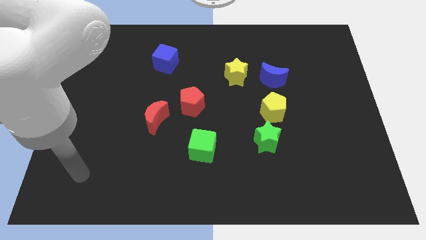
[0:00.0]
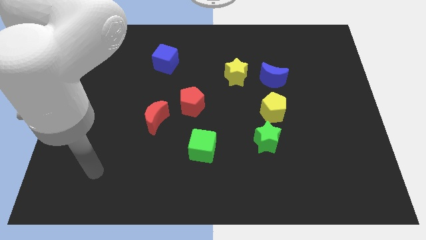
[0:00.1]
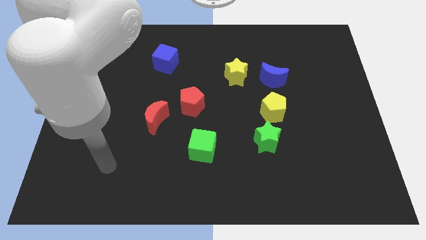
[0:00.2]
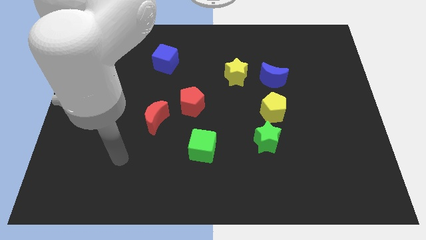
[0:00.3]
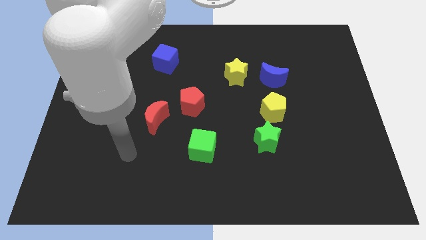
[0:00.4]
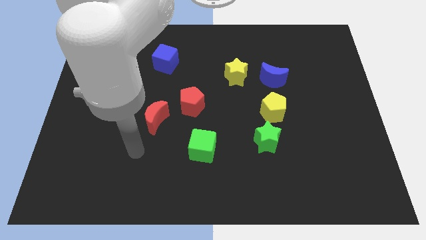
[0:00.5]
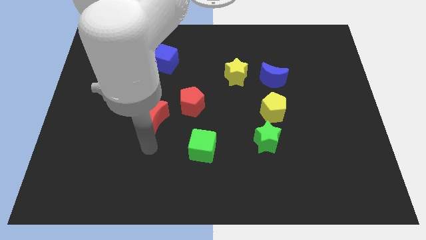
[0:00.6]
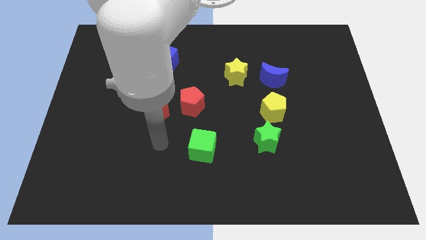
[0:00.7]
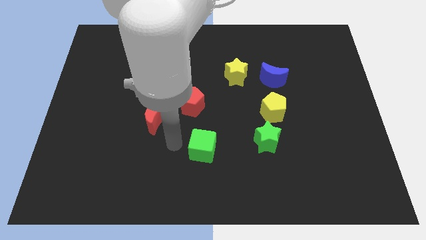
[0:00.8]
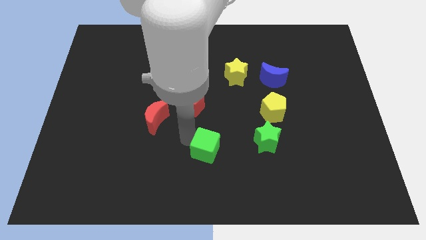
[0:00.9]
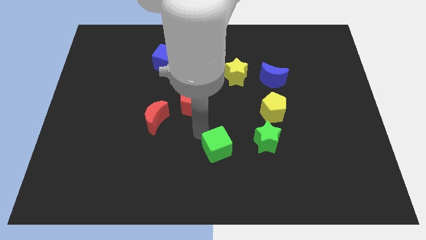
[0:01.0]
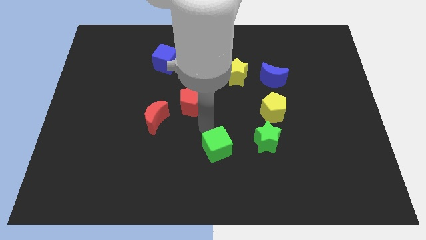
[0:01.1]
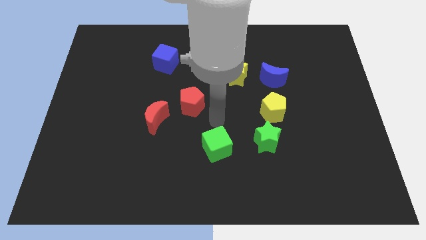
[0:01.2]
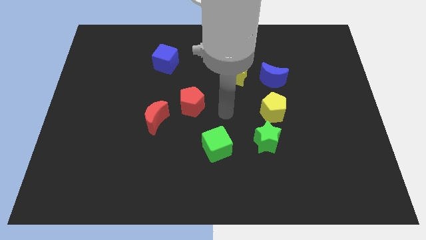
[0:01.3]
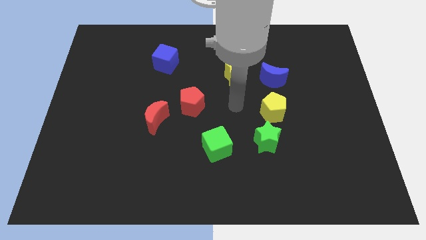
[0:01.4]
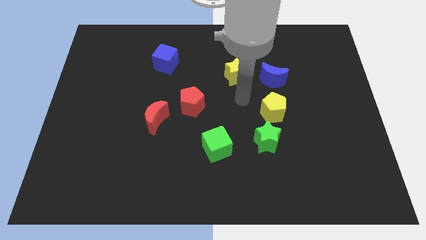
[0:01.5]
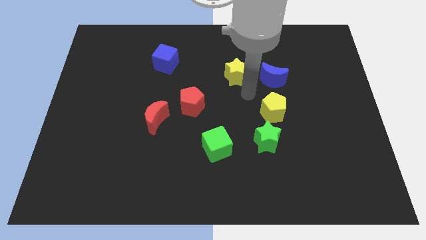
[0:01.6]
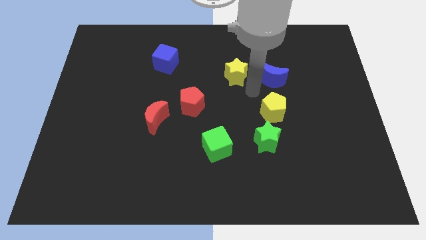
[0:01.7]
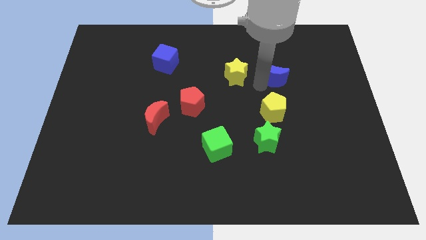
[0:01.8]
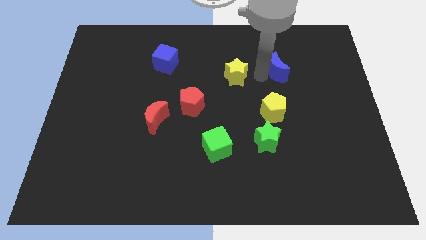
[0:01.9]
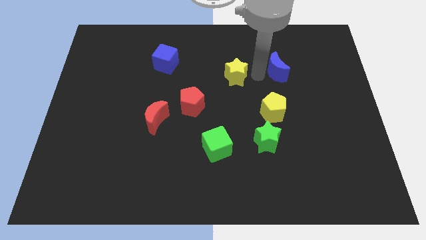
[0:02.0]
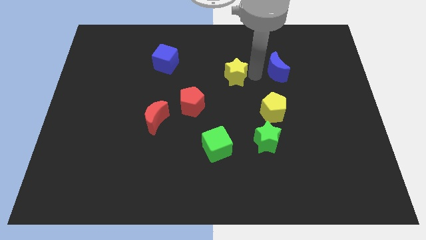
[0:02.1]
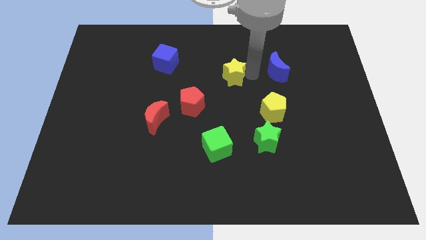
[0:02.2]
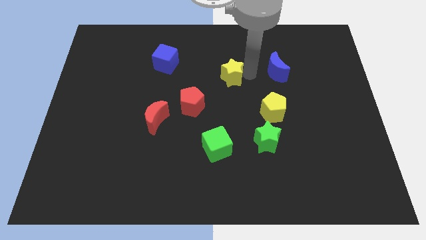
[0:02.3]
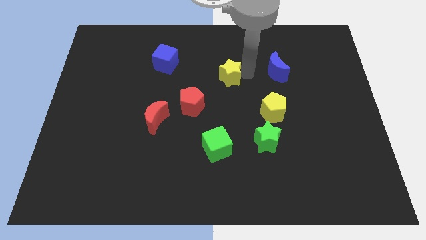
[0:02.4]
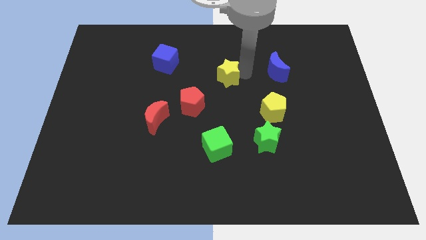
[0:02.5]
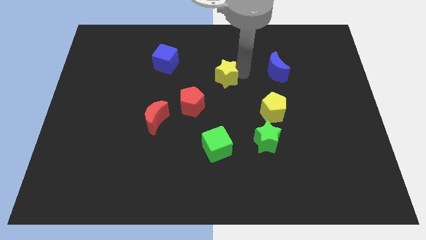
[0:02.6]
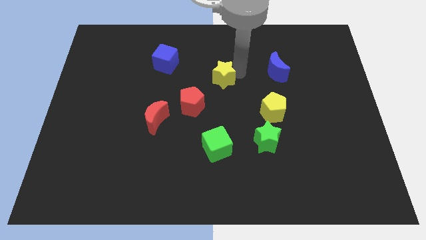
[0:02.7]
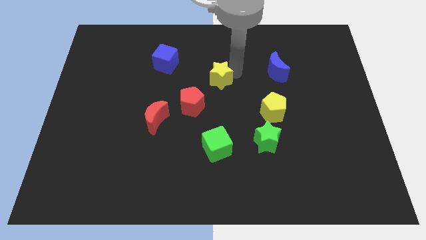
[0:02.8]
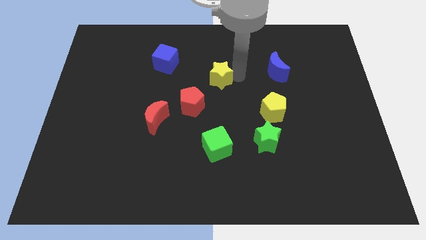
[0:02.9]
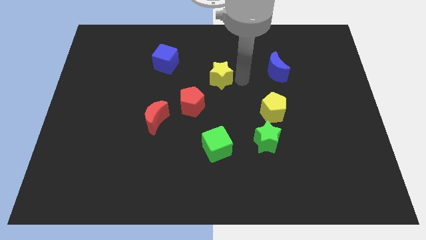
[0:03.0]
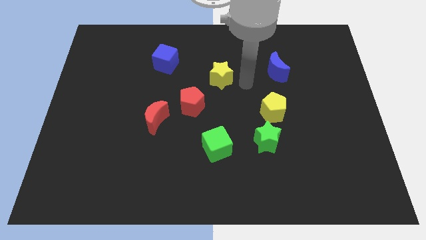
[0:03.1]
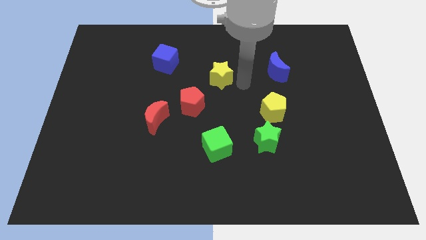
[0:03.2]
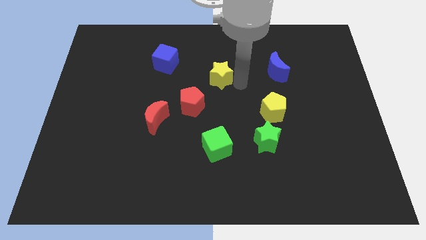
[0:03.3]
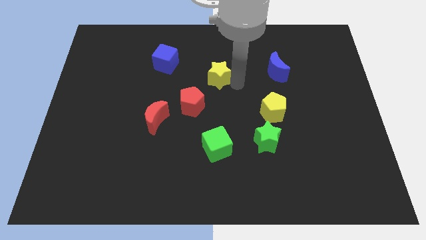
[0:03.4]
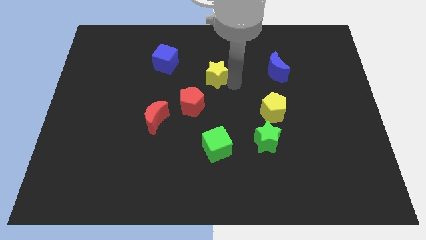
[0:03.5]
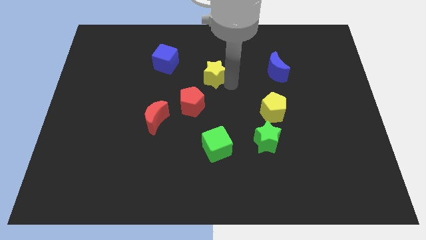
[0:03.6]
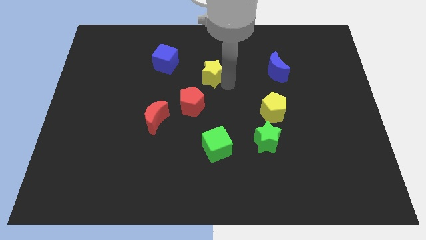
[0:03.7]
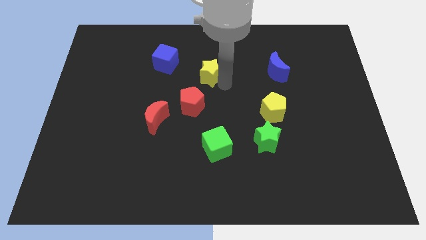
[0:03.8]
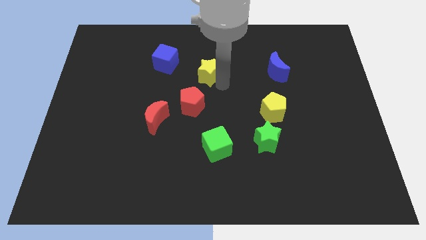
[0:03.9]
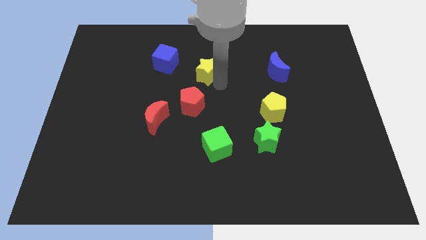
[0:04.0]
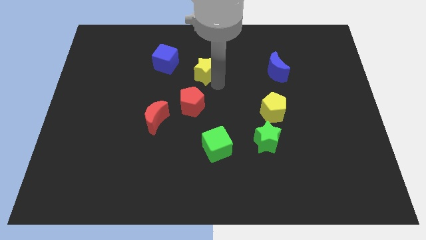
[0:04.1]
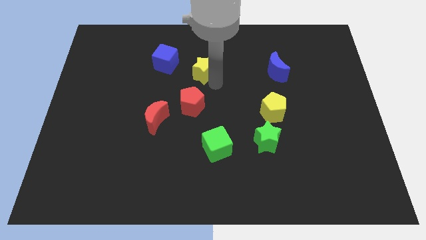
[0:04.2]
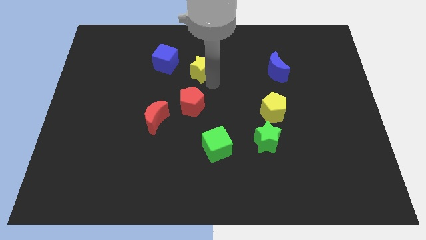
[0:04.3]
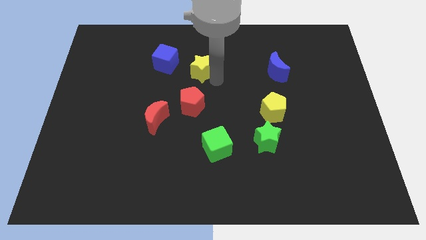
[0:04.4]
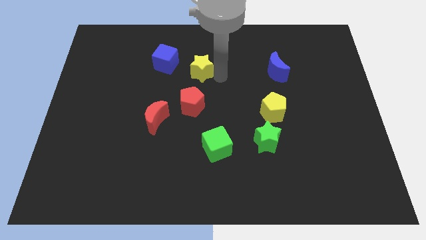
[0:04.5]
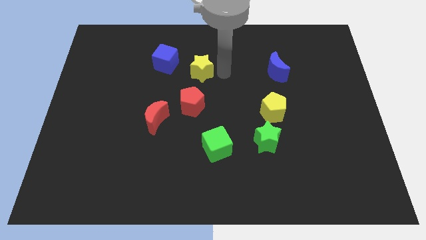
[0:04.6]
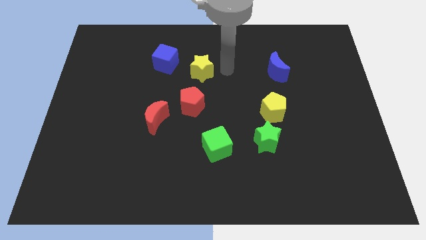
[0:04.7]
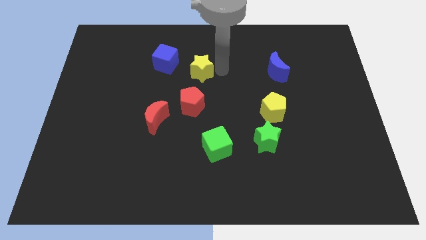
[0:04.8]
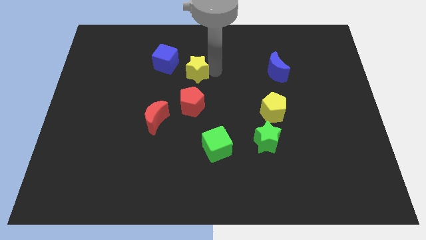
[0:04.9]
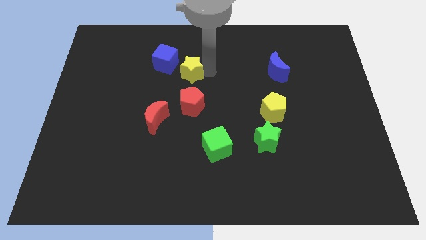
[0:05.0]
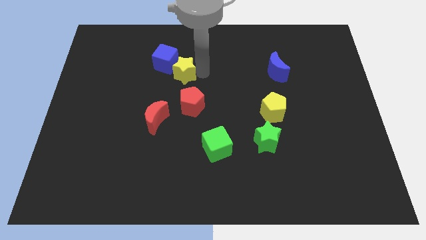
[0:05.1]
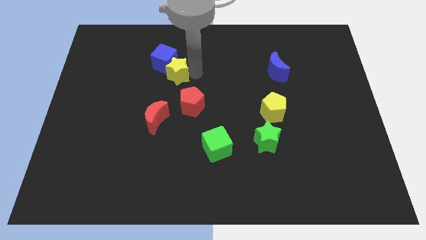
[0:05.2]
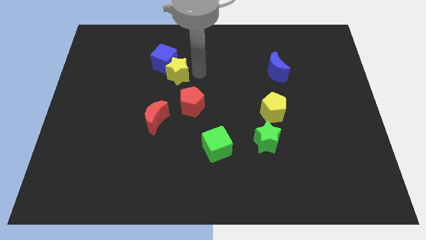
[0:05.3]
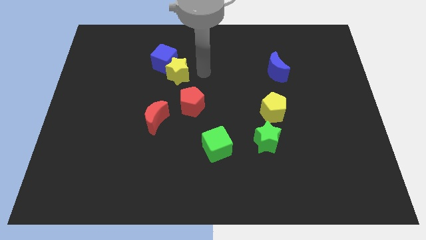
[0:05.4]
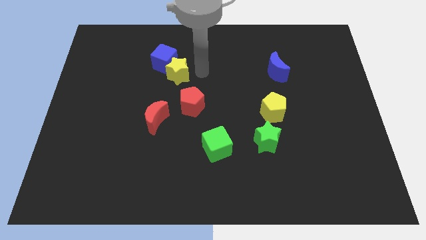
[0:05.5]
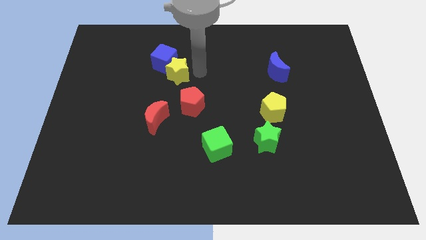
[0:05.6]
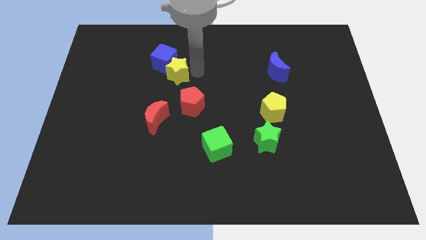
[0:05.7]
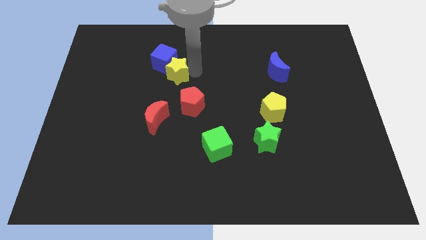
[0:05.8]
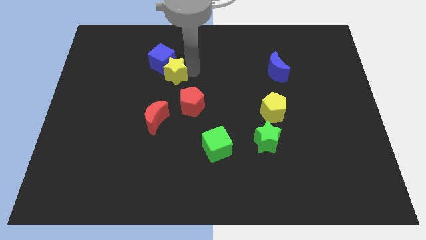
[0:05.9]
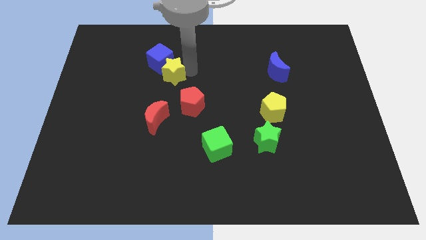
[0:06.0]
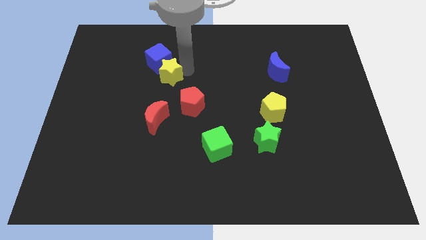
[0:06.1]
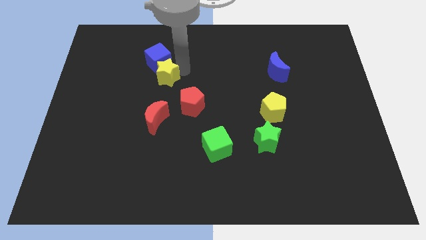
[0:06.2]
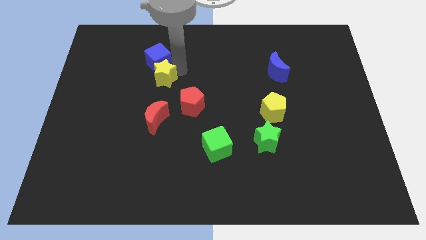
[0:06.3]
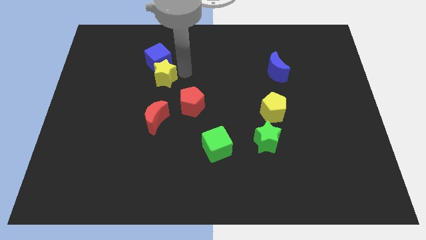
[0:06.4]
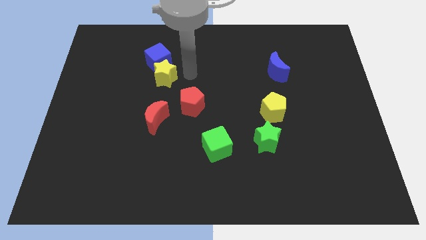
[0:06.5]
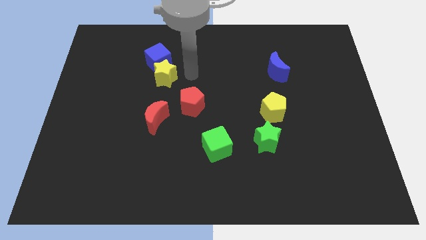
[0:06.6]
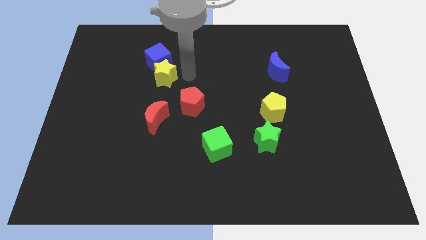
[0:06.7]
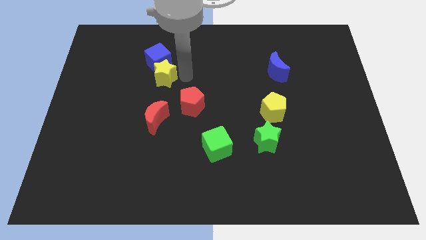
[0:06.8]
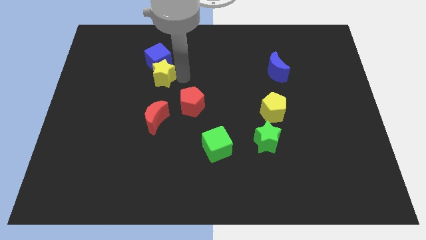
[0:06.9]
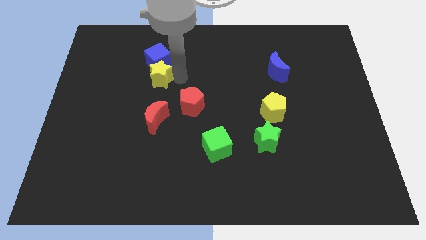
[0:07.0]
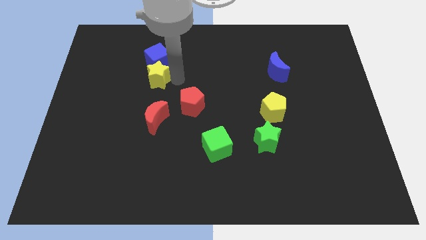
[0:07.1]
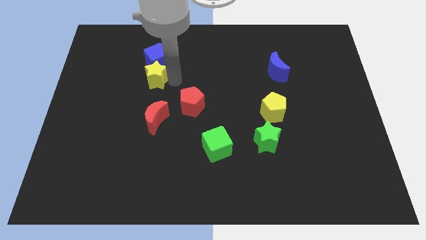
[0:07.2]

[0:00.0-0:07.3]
move the yellow star to the left

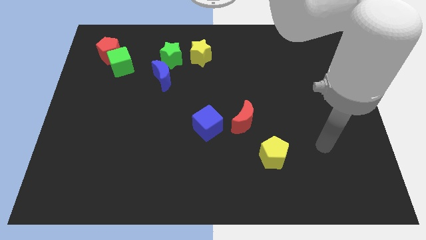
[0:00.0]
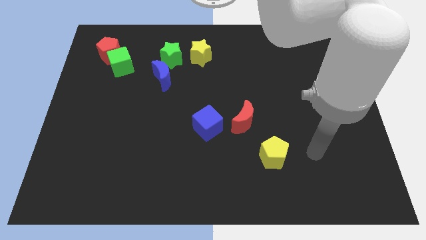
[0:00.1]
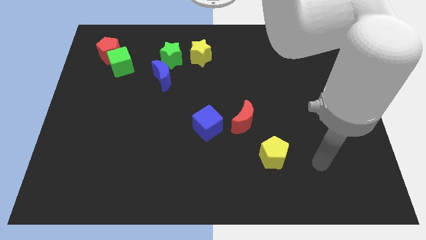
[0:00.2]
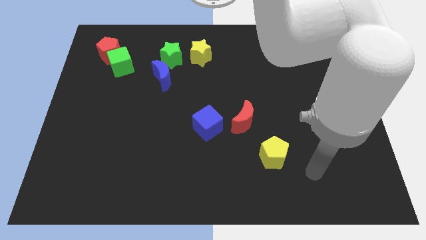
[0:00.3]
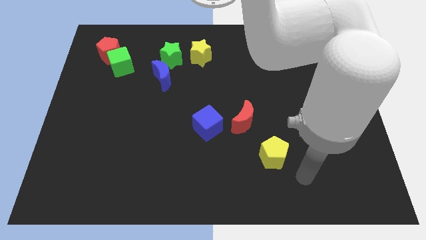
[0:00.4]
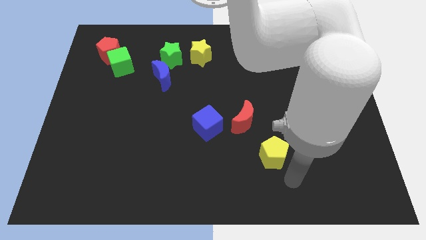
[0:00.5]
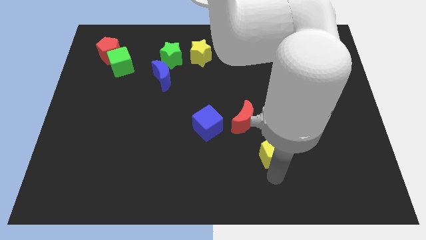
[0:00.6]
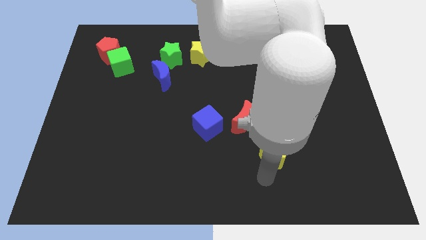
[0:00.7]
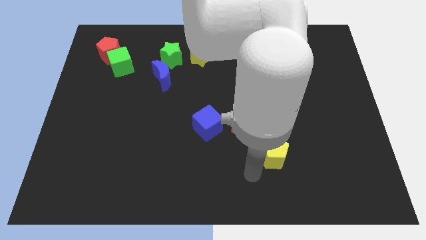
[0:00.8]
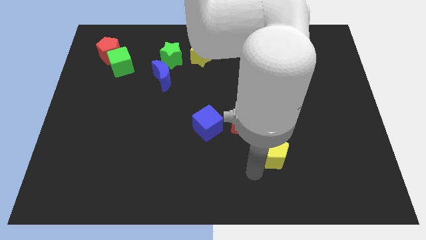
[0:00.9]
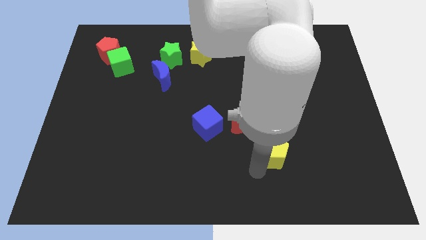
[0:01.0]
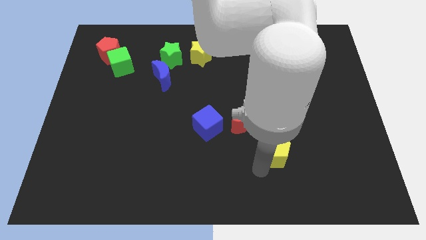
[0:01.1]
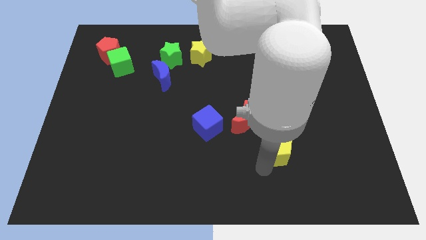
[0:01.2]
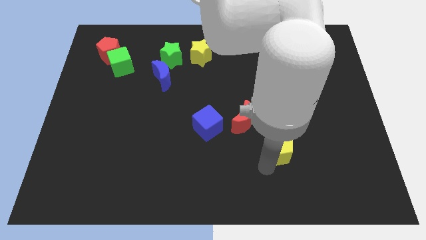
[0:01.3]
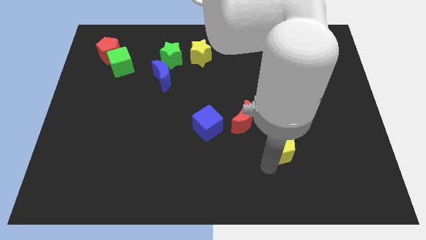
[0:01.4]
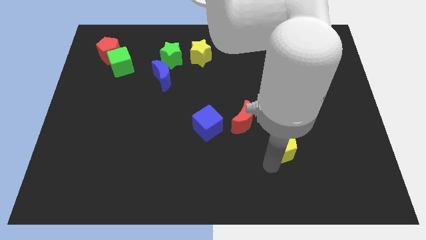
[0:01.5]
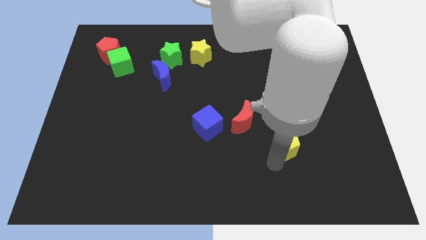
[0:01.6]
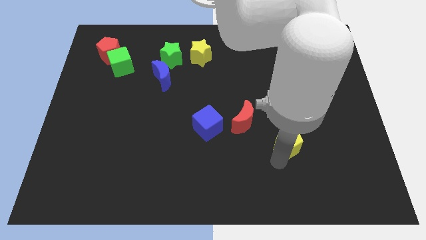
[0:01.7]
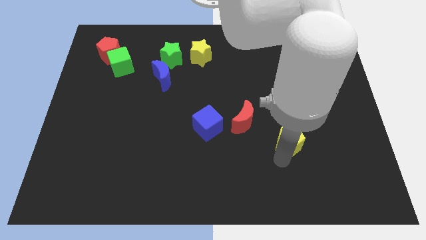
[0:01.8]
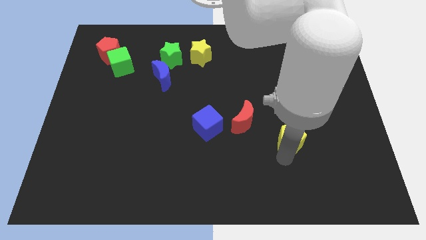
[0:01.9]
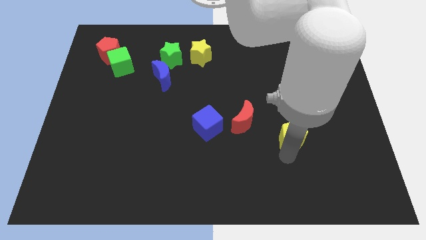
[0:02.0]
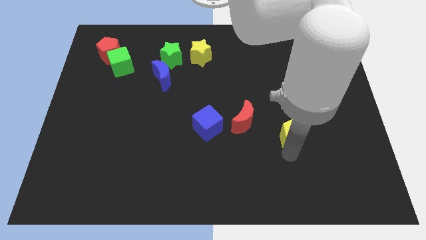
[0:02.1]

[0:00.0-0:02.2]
push the yellow pentagon up and then to the right a bit
